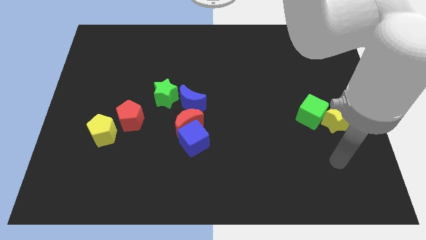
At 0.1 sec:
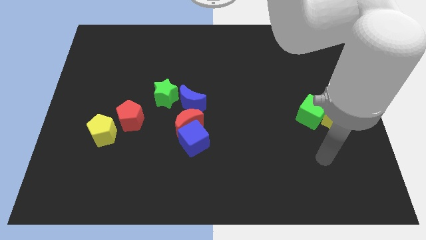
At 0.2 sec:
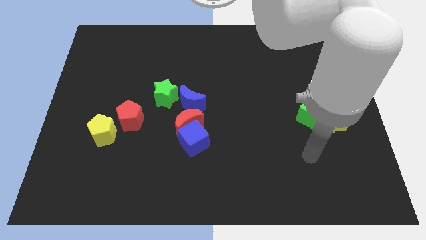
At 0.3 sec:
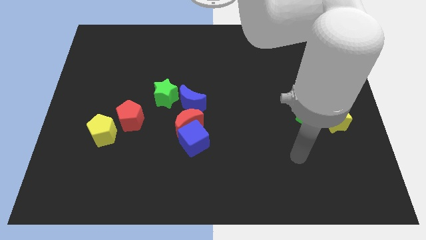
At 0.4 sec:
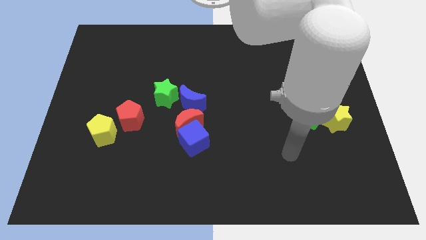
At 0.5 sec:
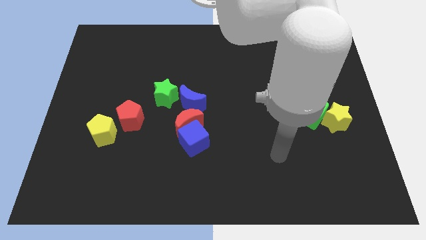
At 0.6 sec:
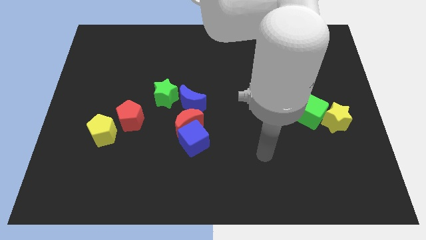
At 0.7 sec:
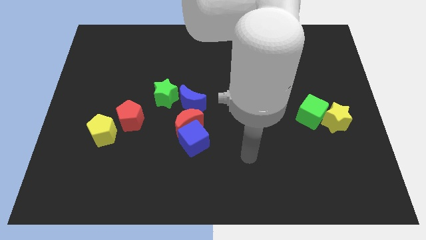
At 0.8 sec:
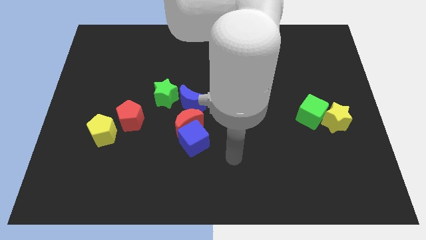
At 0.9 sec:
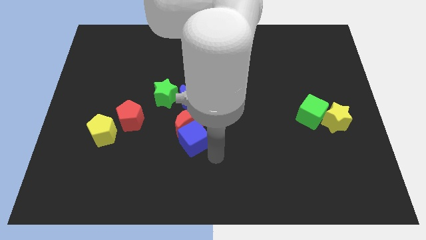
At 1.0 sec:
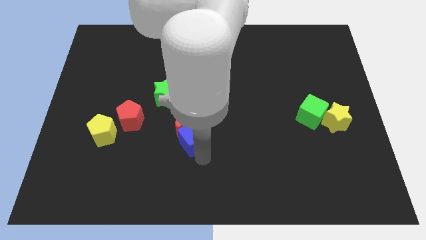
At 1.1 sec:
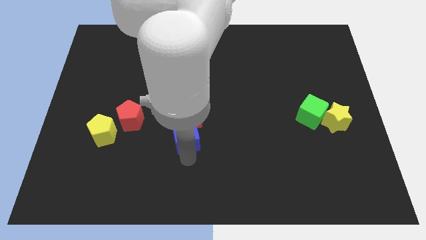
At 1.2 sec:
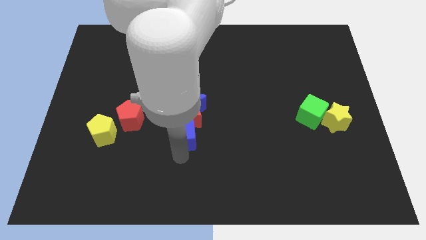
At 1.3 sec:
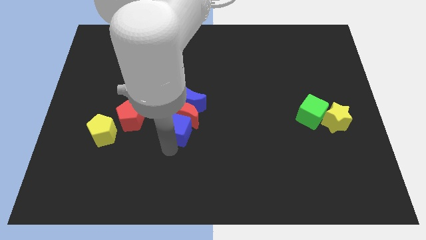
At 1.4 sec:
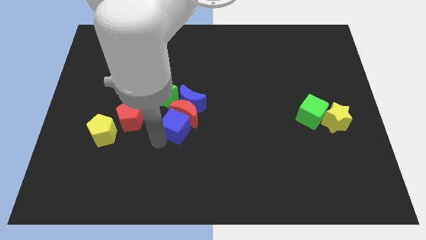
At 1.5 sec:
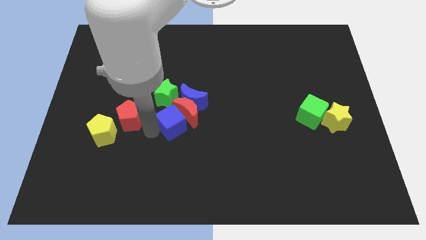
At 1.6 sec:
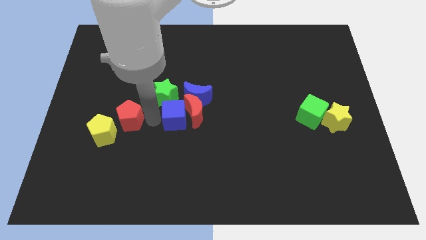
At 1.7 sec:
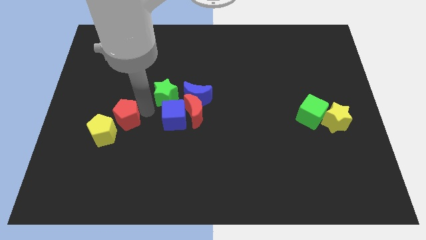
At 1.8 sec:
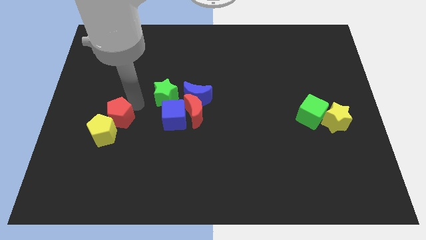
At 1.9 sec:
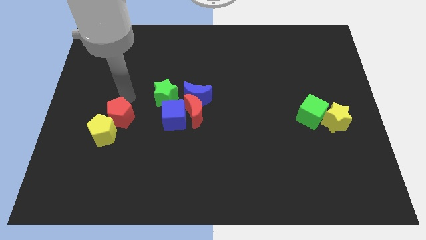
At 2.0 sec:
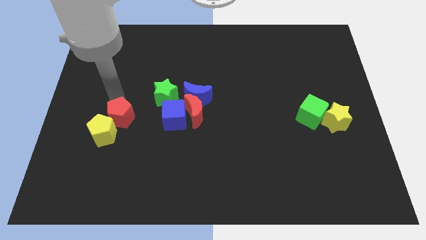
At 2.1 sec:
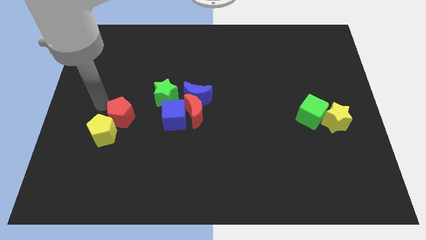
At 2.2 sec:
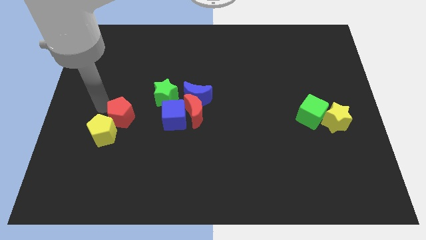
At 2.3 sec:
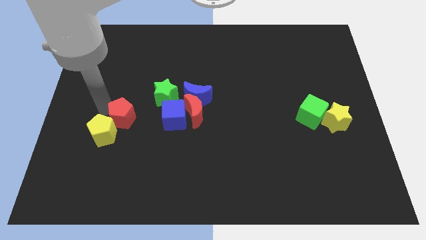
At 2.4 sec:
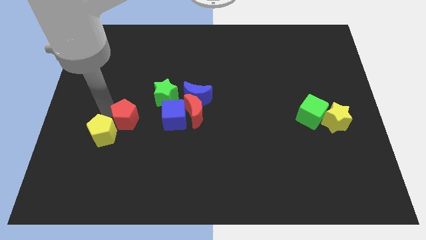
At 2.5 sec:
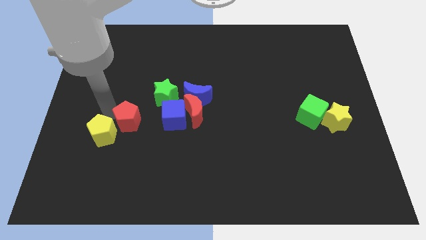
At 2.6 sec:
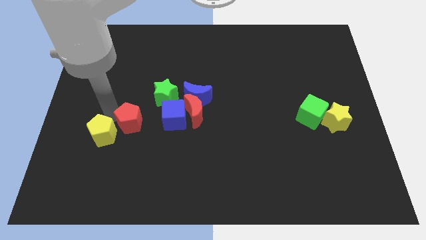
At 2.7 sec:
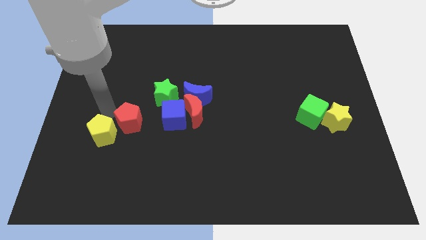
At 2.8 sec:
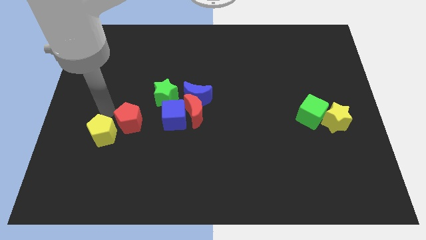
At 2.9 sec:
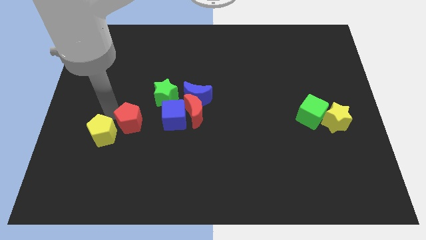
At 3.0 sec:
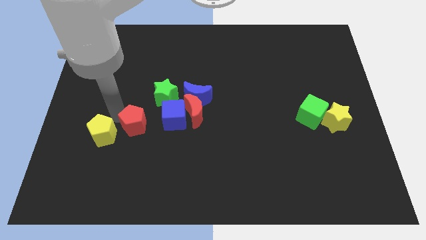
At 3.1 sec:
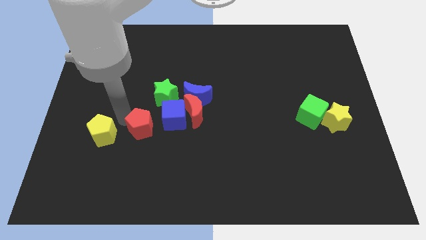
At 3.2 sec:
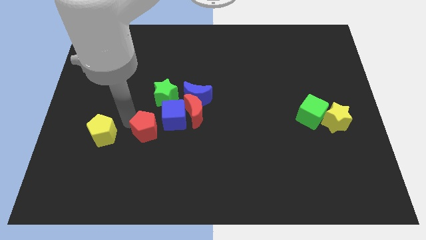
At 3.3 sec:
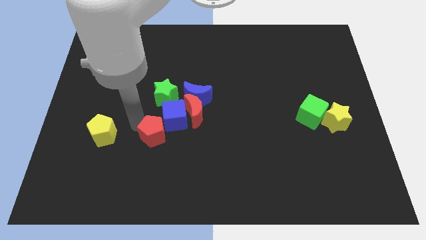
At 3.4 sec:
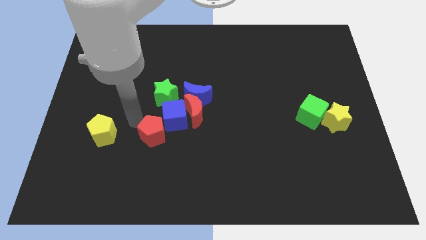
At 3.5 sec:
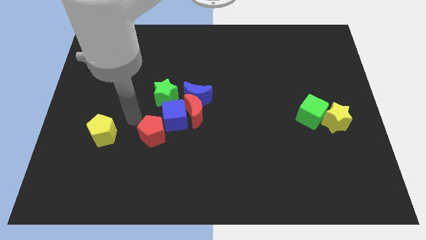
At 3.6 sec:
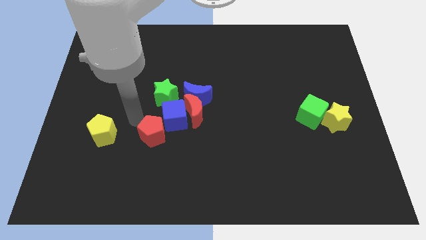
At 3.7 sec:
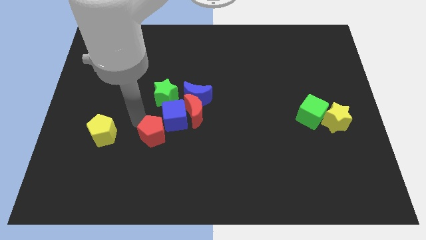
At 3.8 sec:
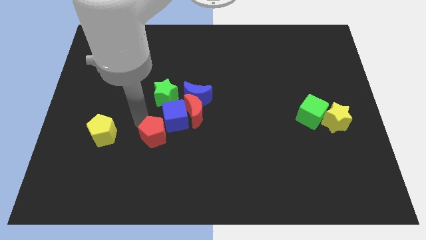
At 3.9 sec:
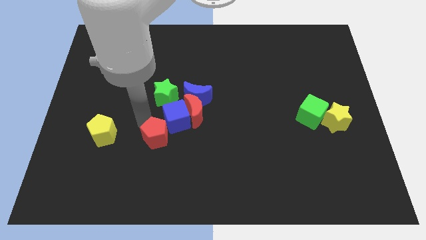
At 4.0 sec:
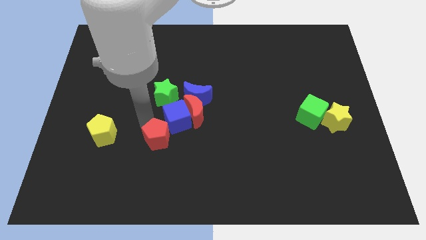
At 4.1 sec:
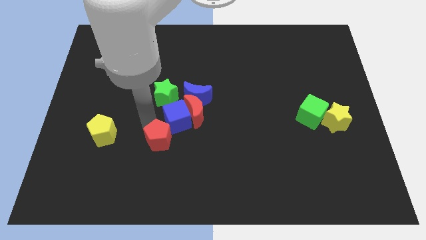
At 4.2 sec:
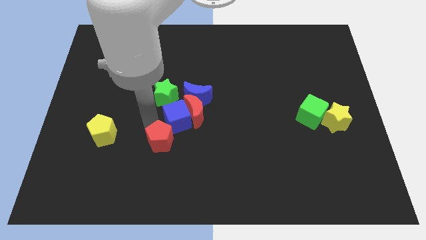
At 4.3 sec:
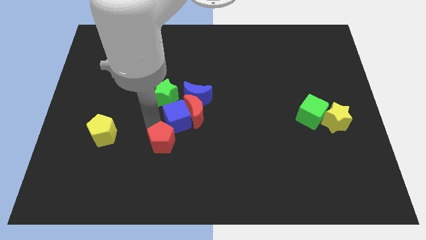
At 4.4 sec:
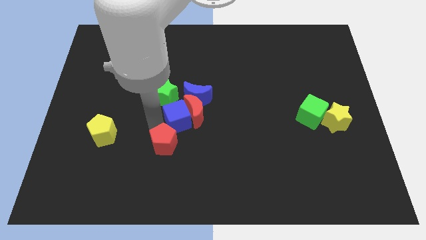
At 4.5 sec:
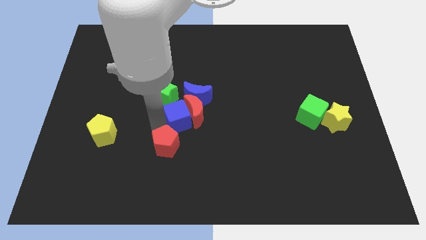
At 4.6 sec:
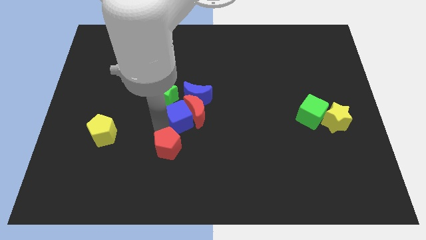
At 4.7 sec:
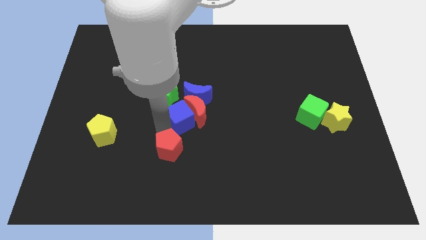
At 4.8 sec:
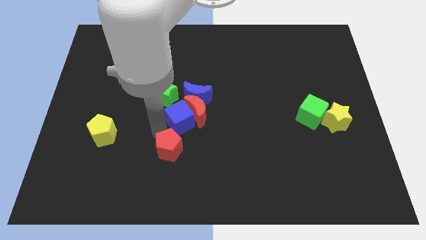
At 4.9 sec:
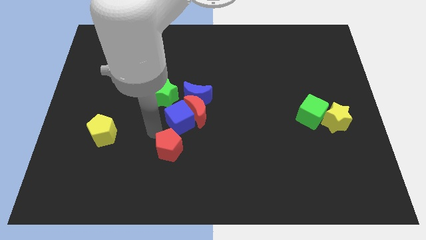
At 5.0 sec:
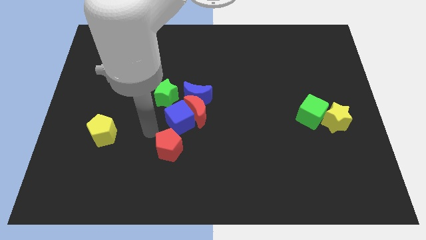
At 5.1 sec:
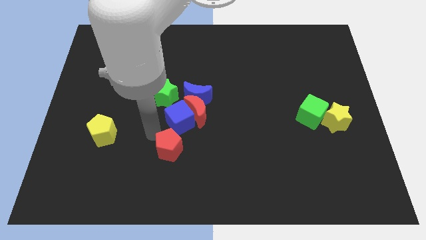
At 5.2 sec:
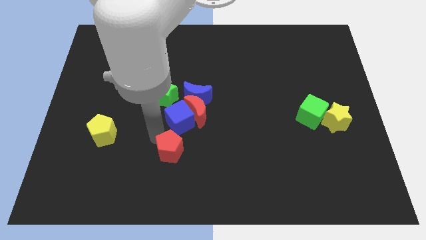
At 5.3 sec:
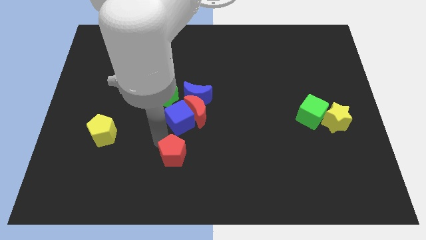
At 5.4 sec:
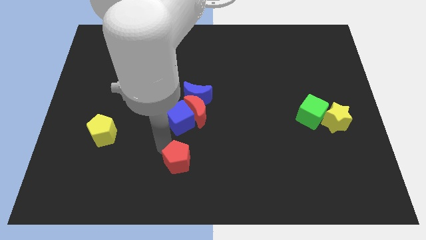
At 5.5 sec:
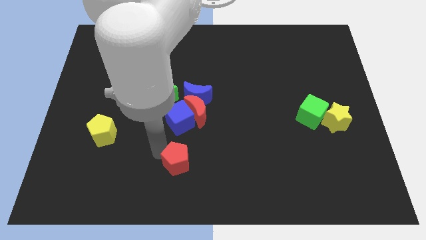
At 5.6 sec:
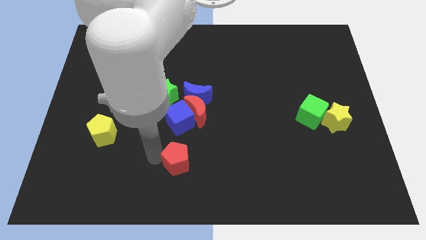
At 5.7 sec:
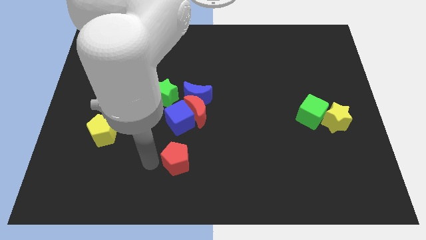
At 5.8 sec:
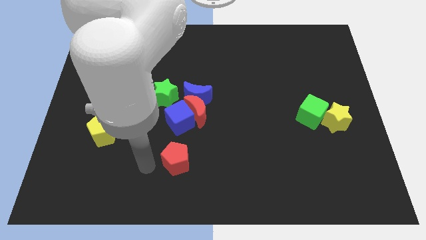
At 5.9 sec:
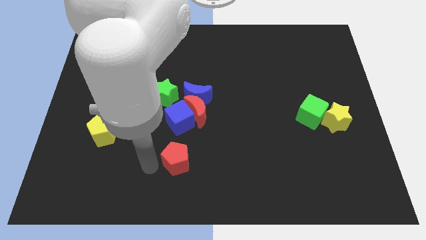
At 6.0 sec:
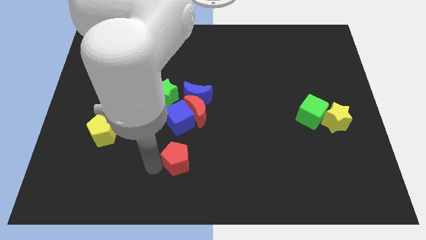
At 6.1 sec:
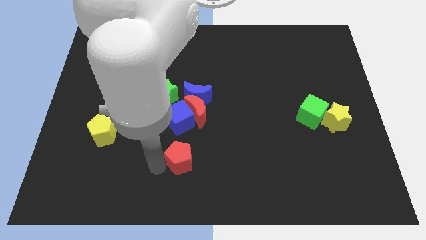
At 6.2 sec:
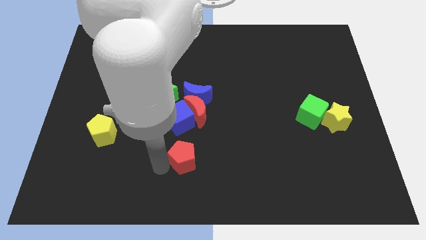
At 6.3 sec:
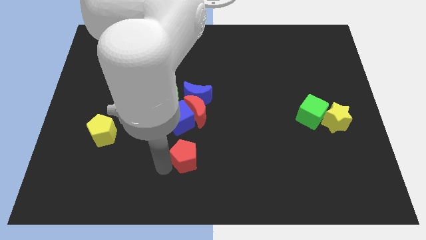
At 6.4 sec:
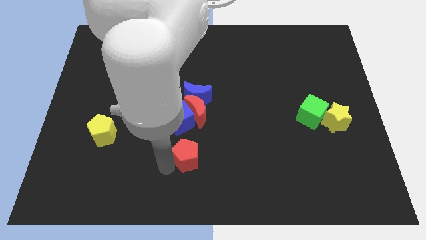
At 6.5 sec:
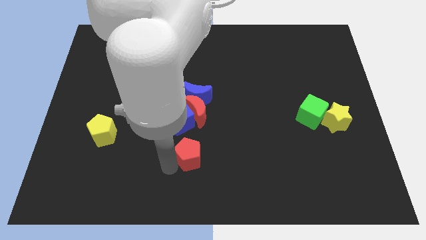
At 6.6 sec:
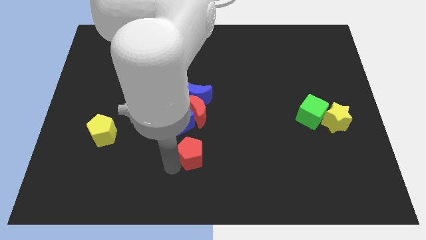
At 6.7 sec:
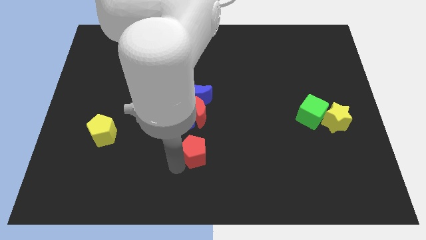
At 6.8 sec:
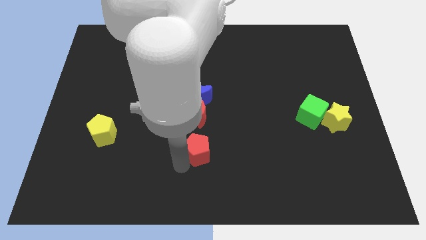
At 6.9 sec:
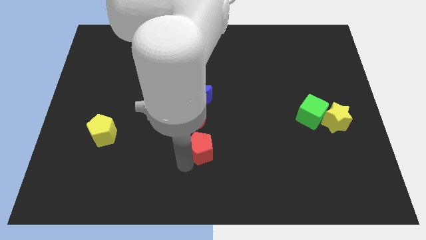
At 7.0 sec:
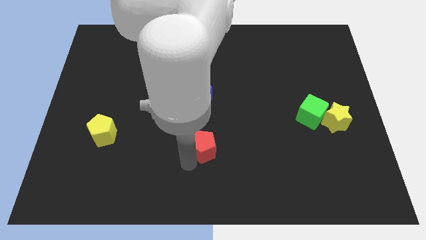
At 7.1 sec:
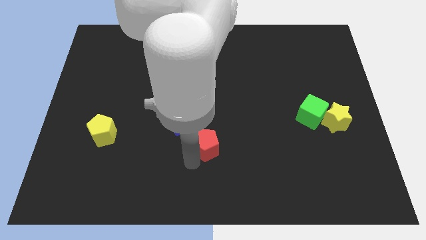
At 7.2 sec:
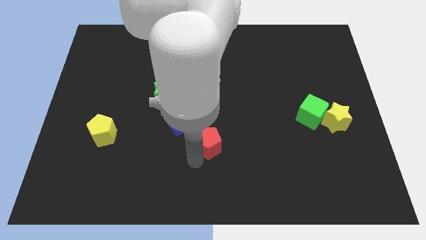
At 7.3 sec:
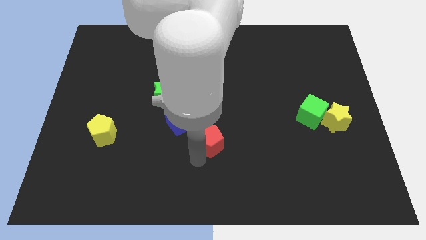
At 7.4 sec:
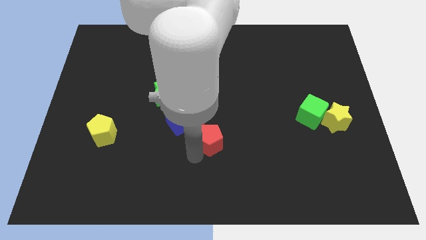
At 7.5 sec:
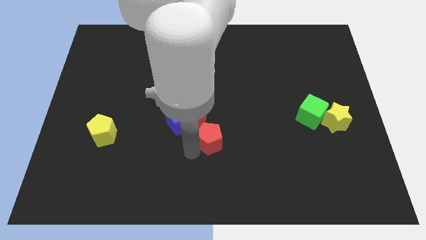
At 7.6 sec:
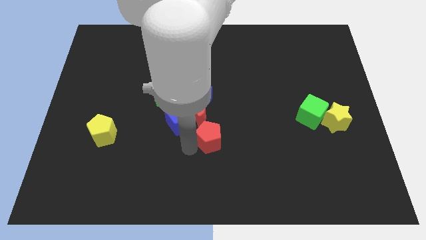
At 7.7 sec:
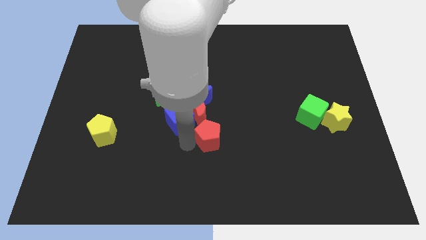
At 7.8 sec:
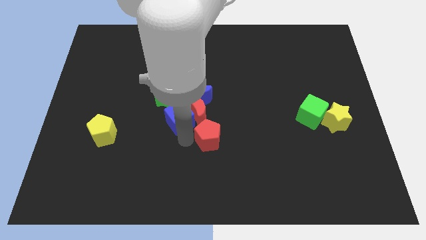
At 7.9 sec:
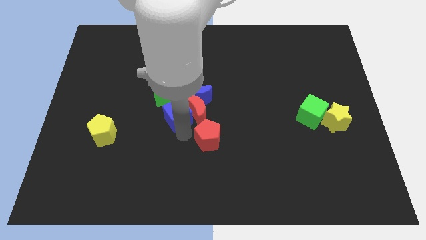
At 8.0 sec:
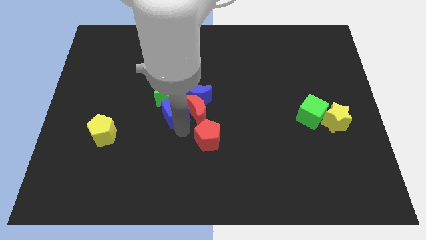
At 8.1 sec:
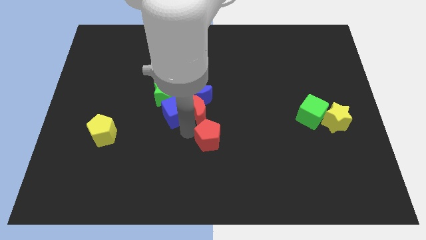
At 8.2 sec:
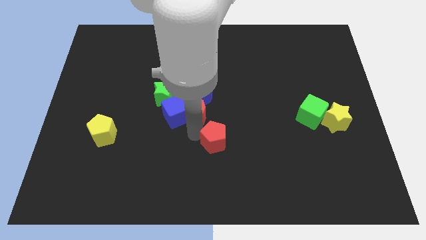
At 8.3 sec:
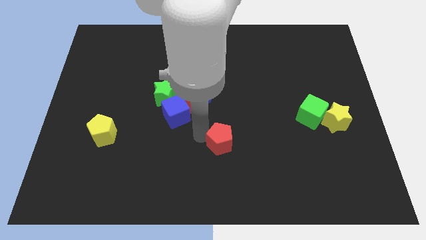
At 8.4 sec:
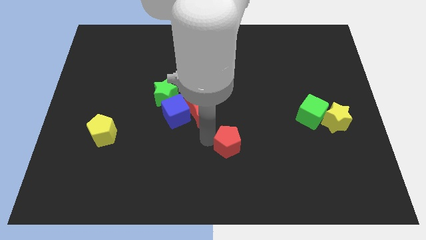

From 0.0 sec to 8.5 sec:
move the red pentagon right
